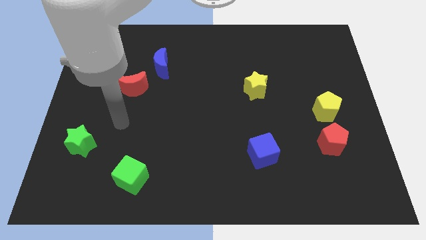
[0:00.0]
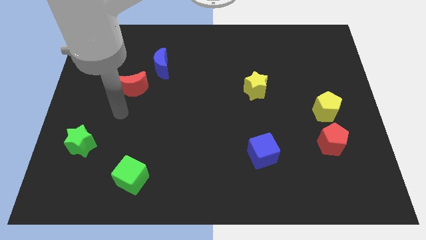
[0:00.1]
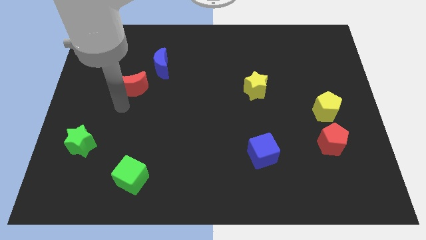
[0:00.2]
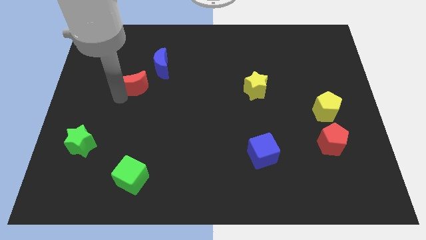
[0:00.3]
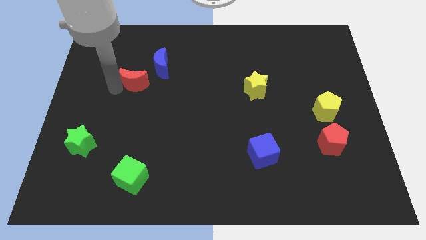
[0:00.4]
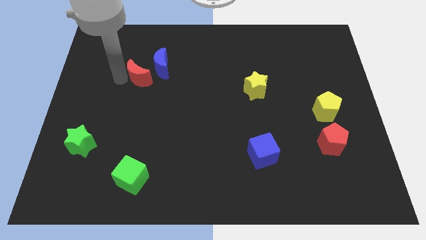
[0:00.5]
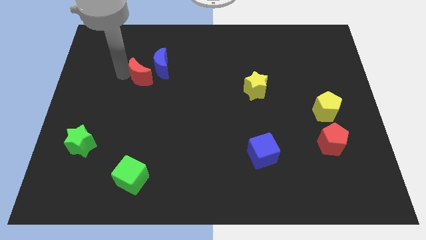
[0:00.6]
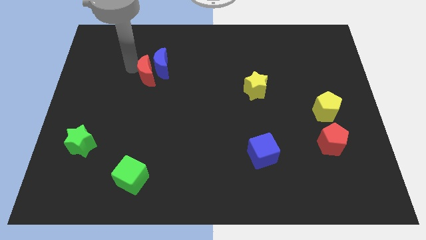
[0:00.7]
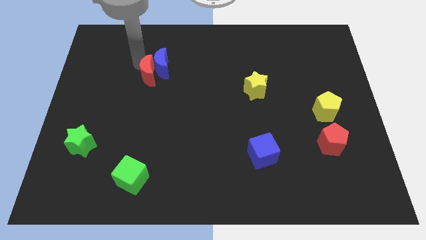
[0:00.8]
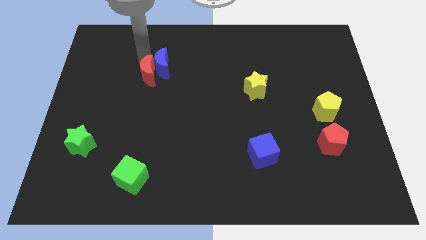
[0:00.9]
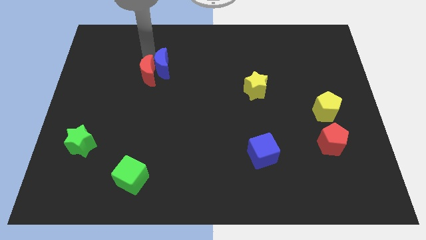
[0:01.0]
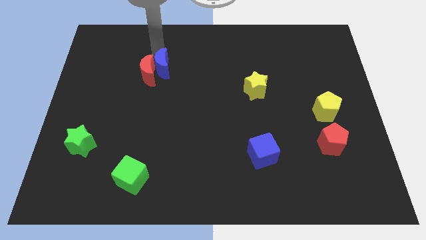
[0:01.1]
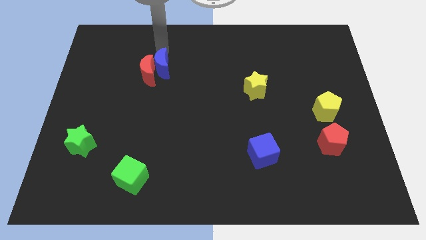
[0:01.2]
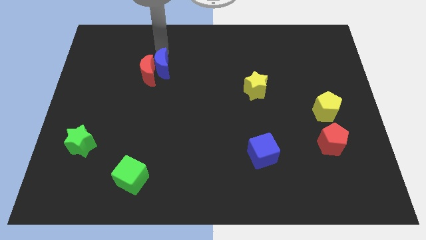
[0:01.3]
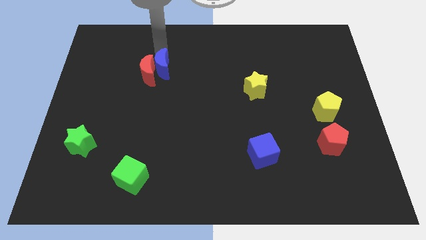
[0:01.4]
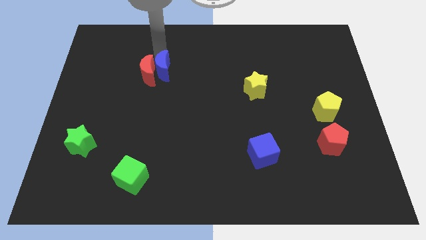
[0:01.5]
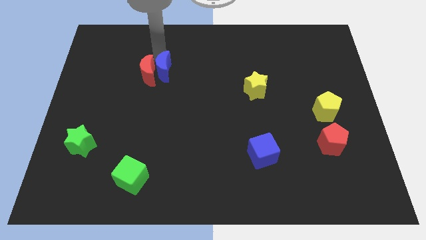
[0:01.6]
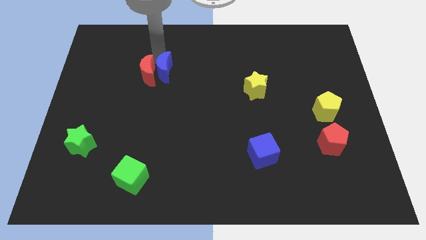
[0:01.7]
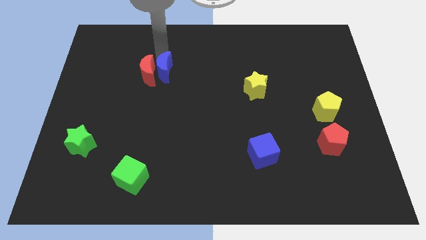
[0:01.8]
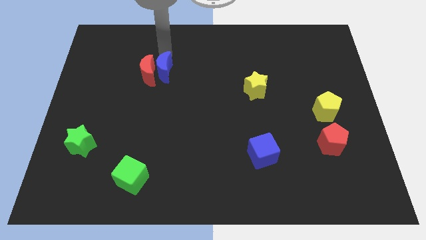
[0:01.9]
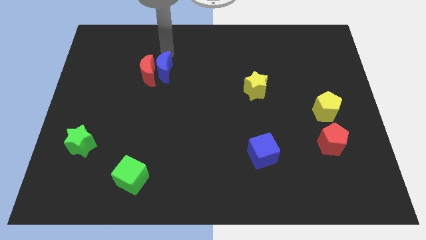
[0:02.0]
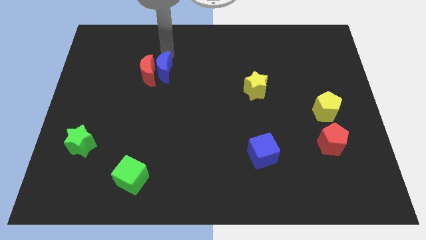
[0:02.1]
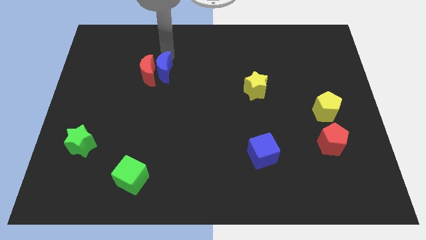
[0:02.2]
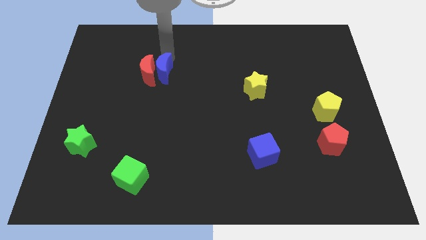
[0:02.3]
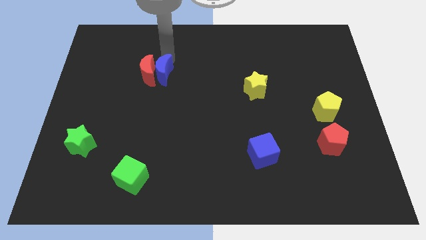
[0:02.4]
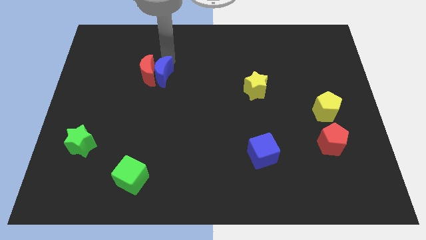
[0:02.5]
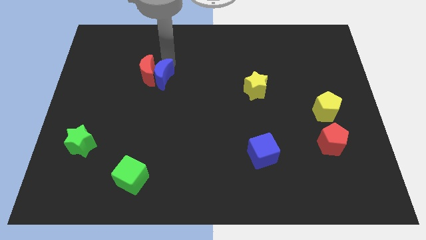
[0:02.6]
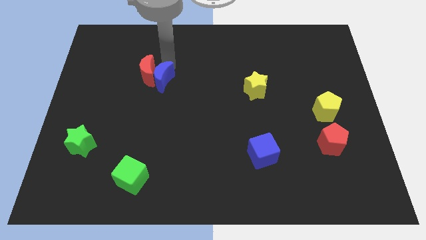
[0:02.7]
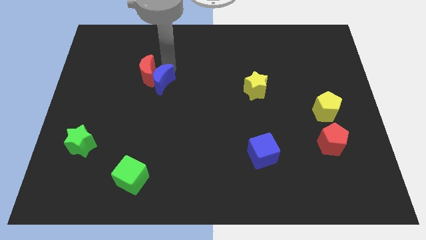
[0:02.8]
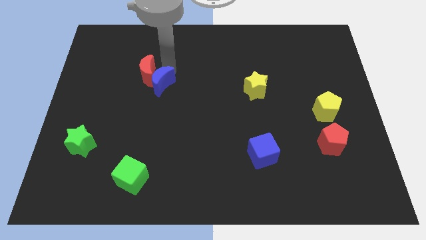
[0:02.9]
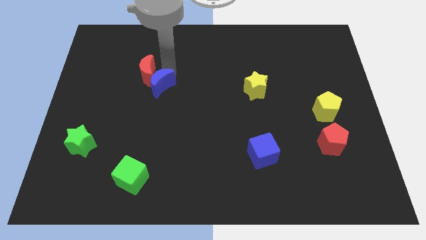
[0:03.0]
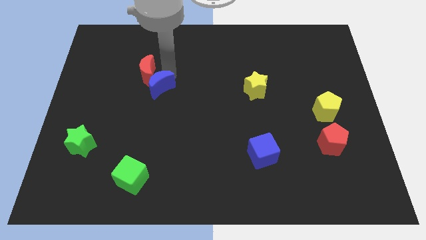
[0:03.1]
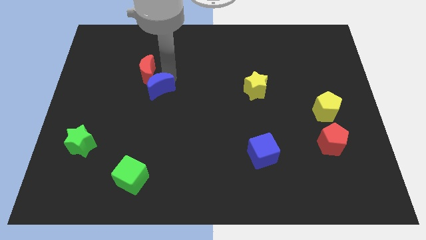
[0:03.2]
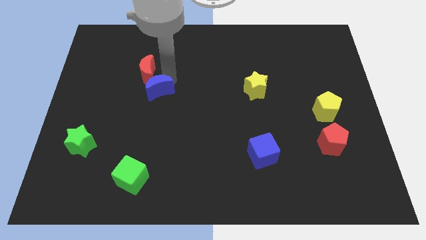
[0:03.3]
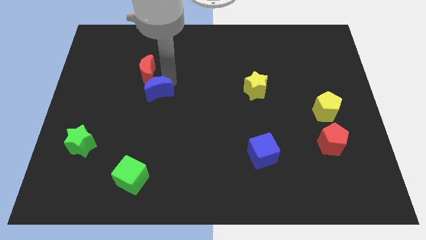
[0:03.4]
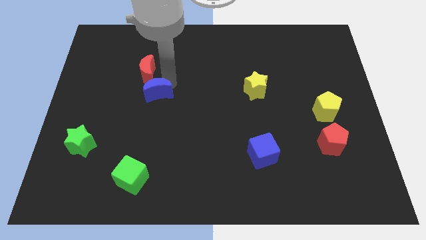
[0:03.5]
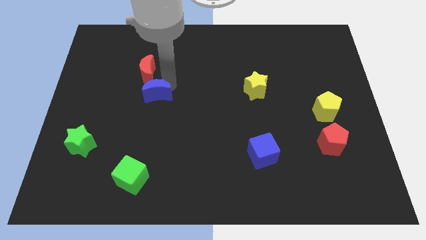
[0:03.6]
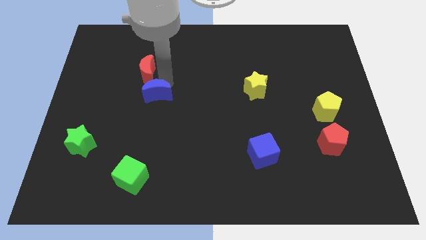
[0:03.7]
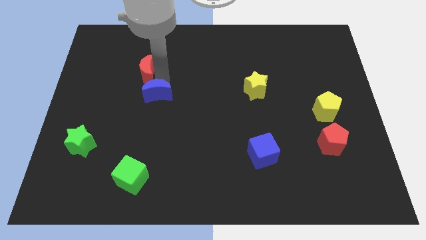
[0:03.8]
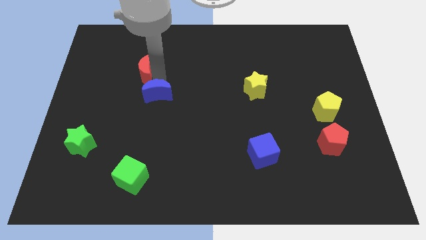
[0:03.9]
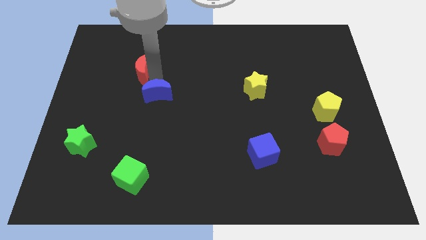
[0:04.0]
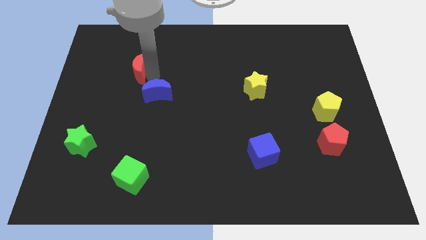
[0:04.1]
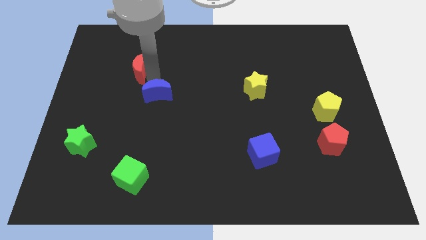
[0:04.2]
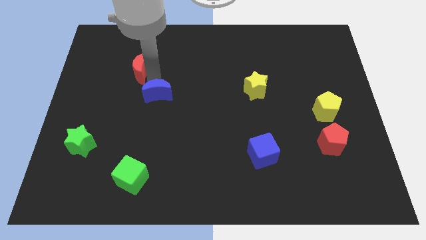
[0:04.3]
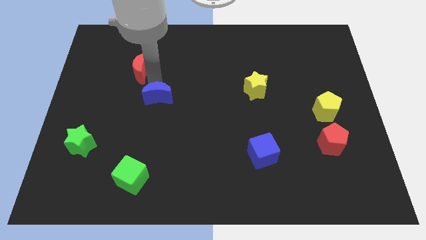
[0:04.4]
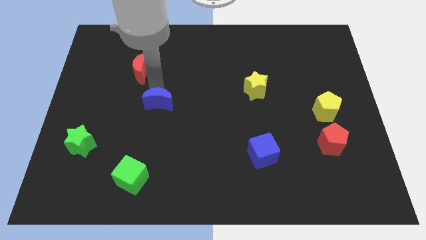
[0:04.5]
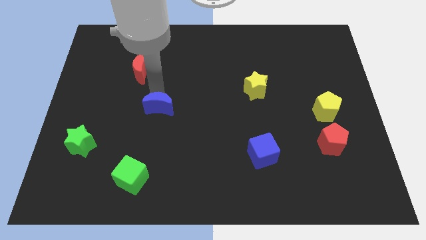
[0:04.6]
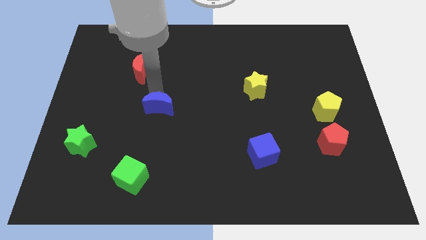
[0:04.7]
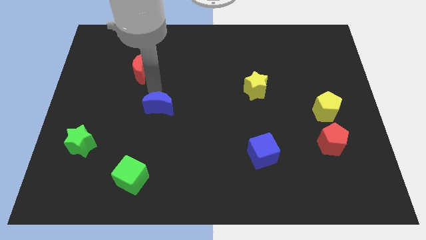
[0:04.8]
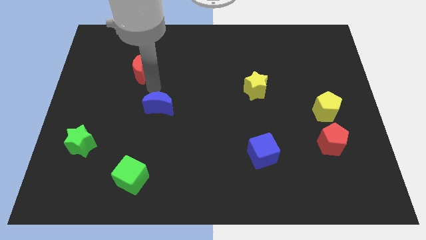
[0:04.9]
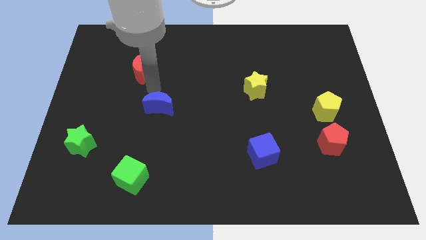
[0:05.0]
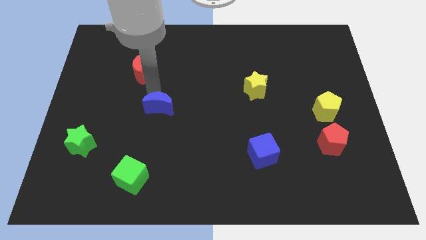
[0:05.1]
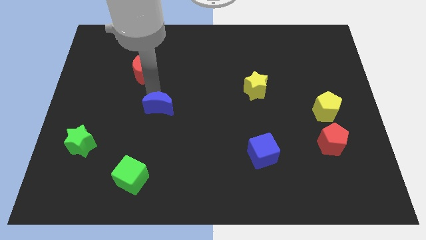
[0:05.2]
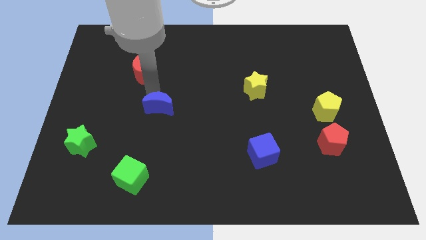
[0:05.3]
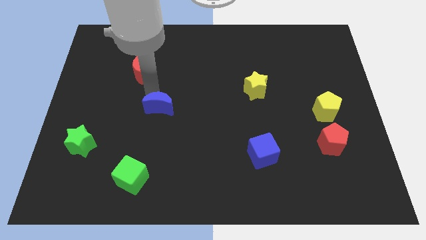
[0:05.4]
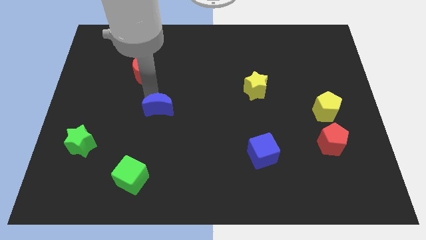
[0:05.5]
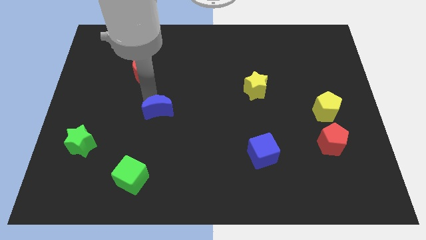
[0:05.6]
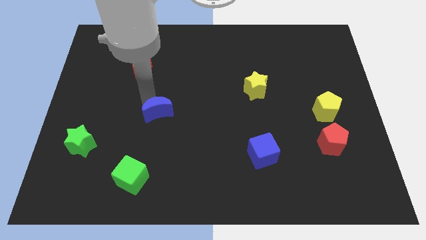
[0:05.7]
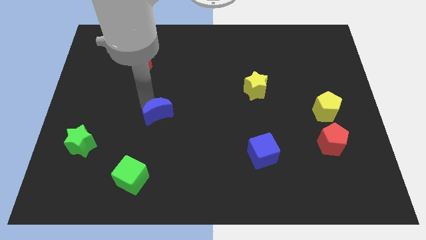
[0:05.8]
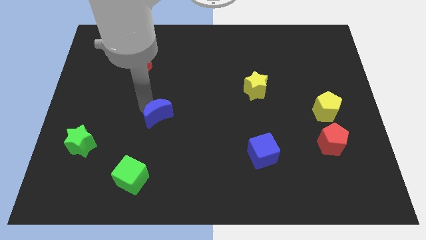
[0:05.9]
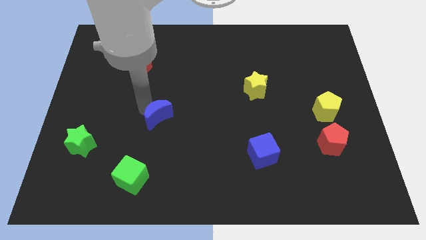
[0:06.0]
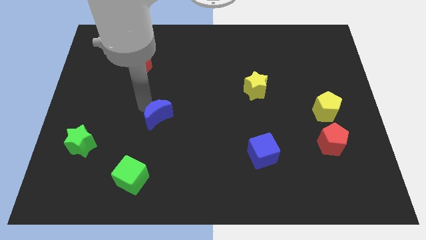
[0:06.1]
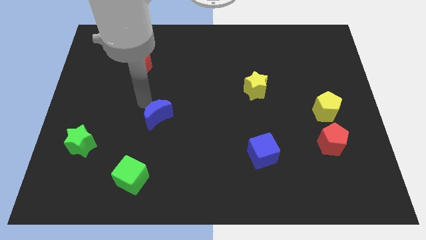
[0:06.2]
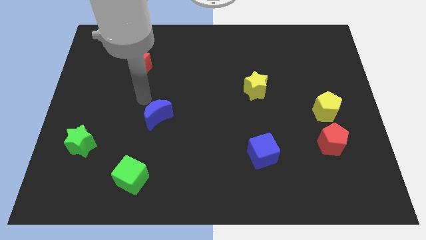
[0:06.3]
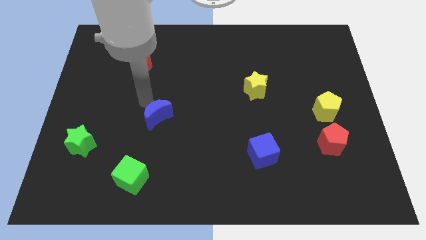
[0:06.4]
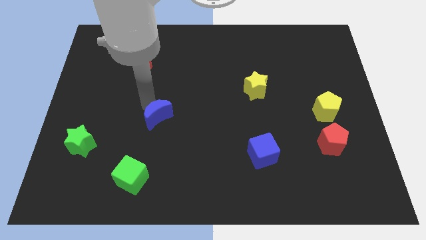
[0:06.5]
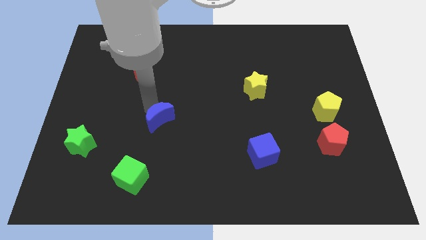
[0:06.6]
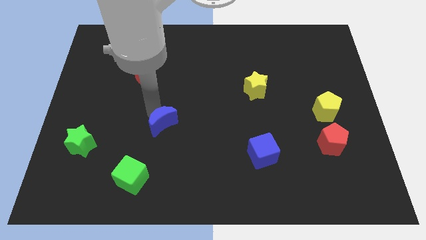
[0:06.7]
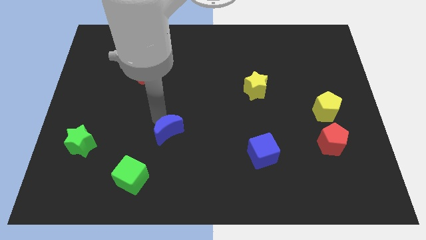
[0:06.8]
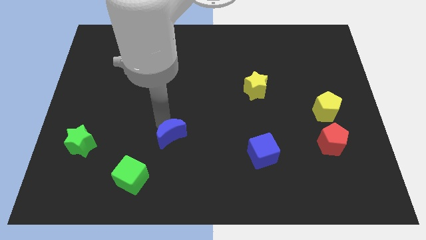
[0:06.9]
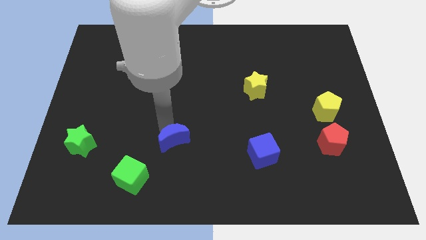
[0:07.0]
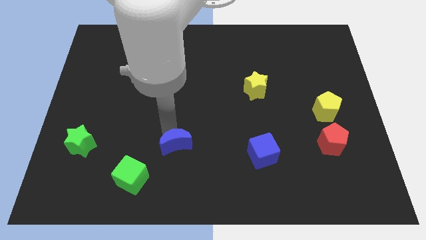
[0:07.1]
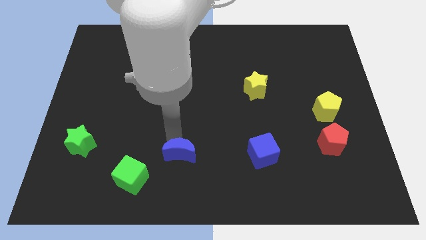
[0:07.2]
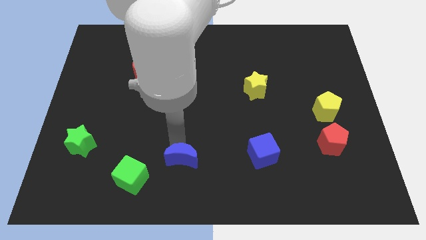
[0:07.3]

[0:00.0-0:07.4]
push the blue moon right of the green cube

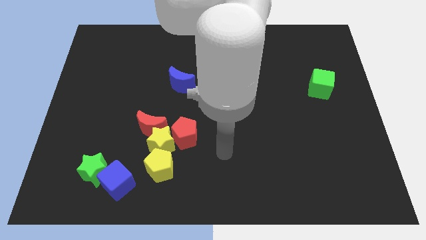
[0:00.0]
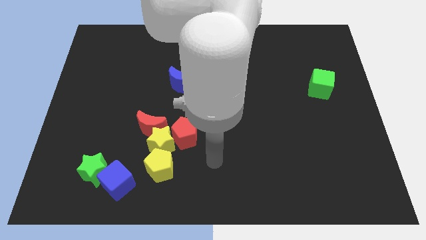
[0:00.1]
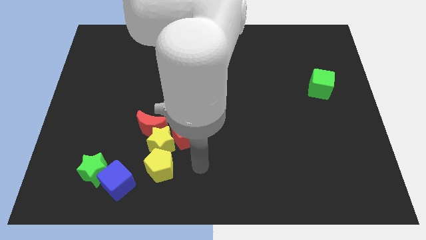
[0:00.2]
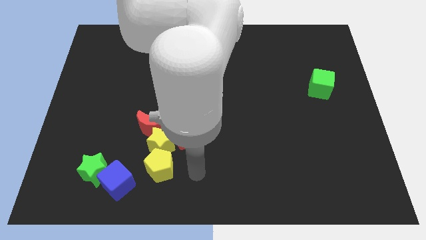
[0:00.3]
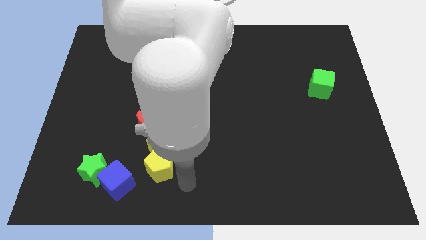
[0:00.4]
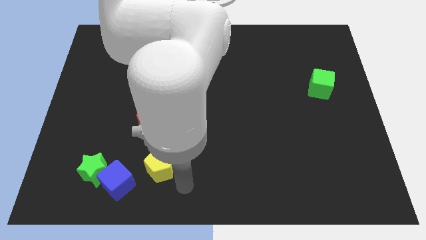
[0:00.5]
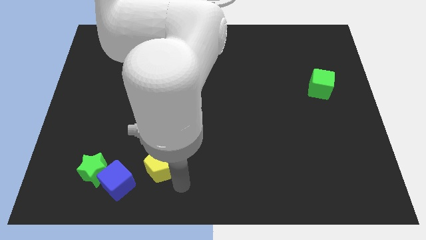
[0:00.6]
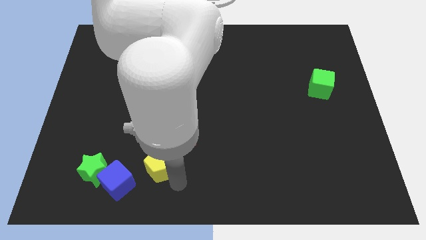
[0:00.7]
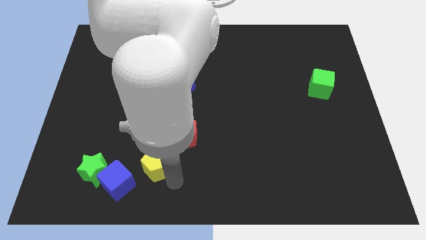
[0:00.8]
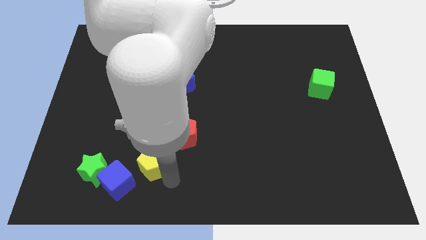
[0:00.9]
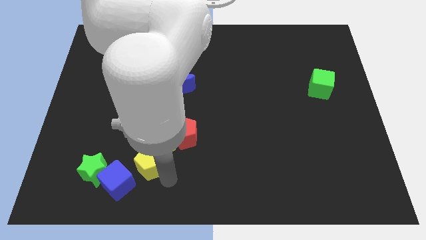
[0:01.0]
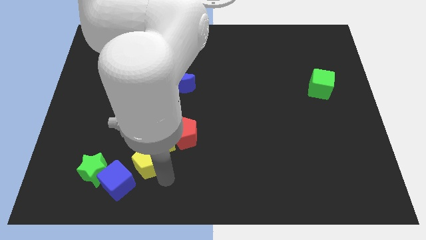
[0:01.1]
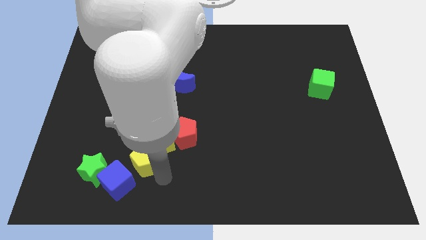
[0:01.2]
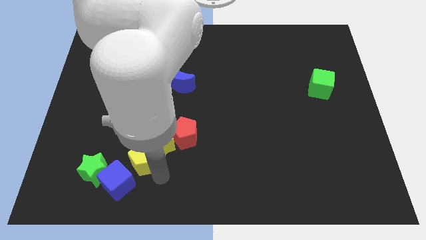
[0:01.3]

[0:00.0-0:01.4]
slide the yellow pentagon to the top side of the blue cube
